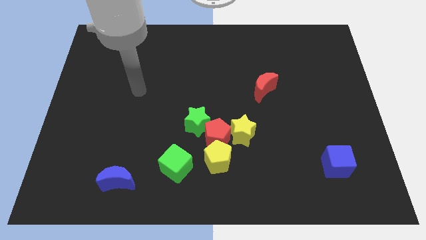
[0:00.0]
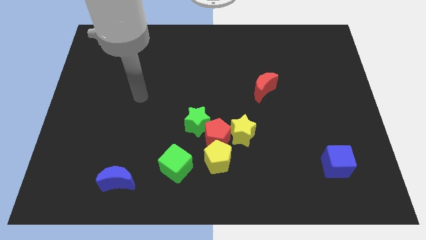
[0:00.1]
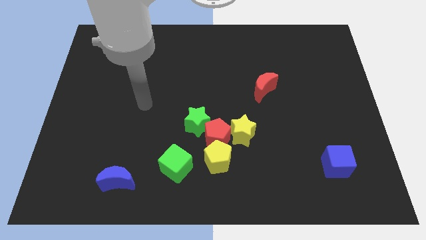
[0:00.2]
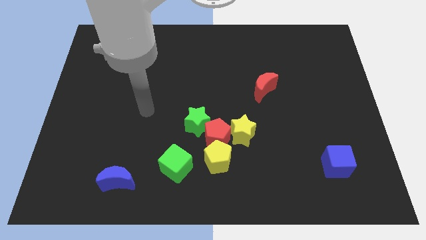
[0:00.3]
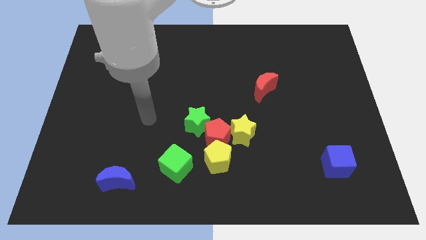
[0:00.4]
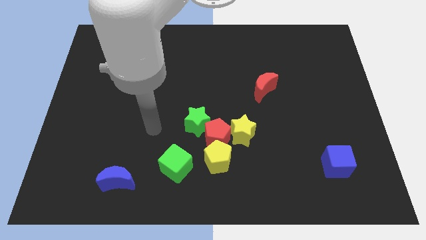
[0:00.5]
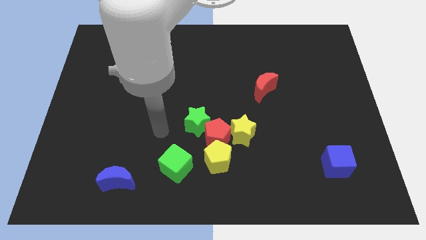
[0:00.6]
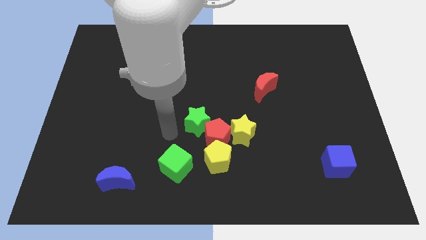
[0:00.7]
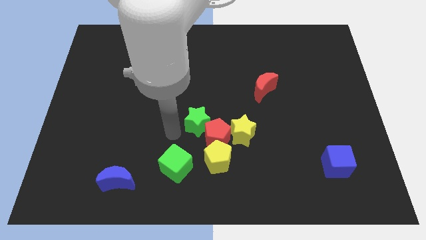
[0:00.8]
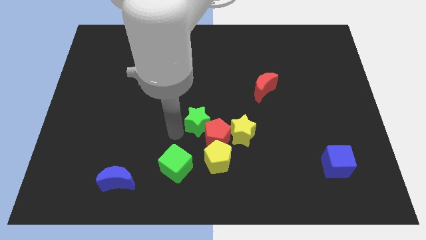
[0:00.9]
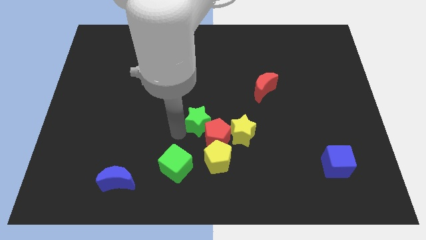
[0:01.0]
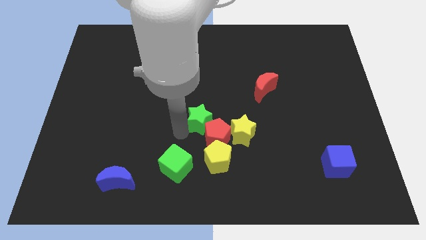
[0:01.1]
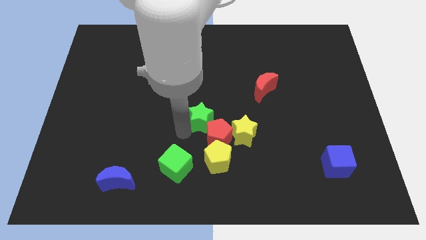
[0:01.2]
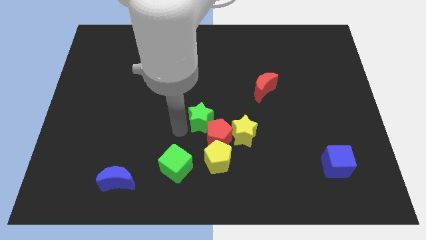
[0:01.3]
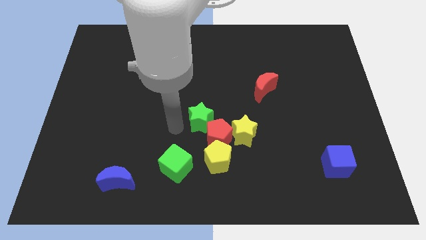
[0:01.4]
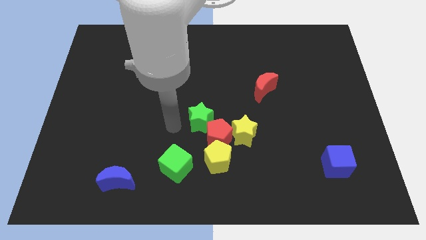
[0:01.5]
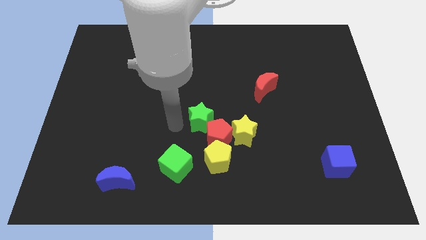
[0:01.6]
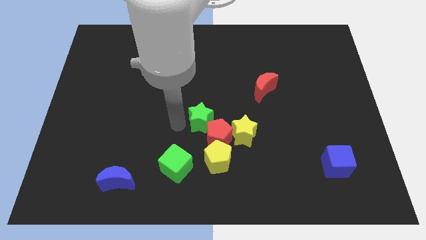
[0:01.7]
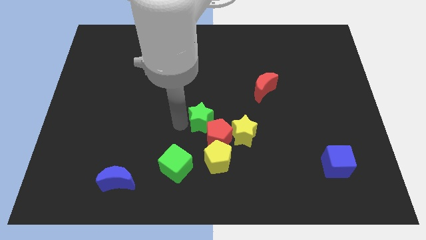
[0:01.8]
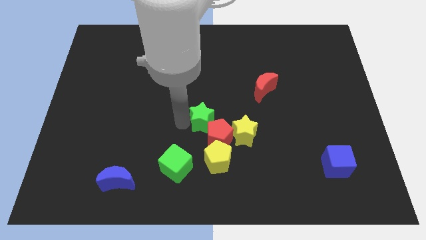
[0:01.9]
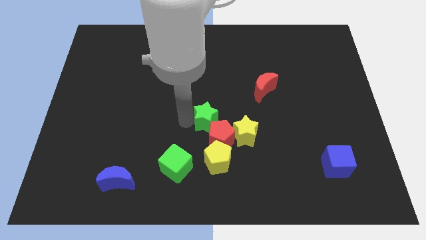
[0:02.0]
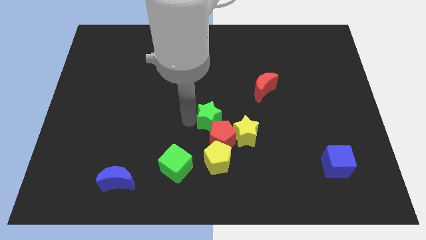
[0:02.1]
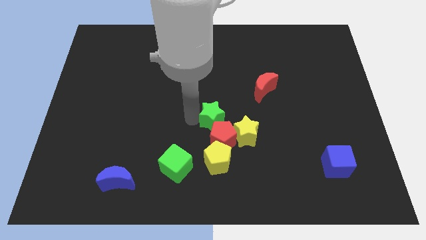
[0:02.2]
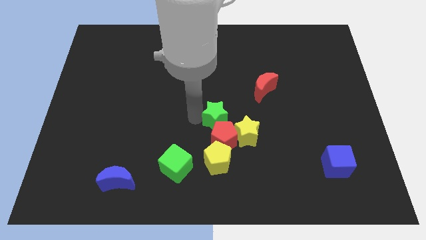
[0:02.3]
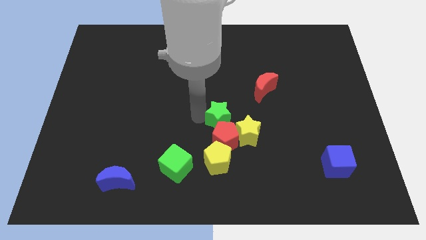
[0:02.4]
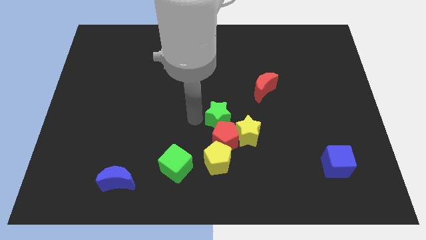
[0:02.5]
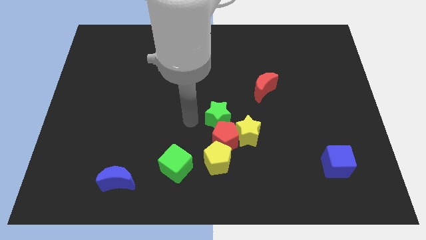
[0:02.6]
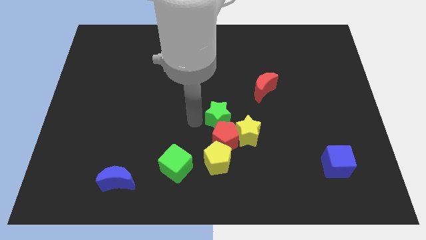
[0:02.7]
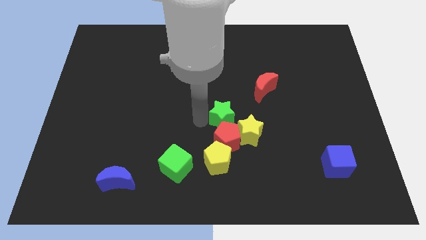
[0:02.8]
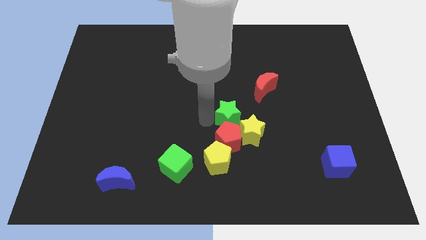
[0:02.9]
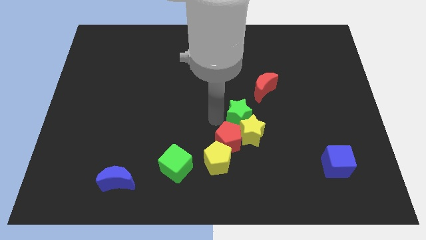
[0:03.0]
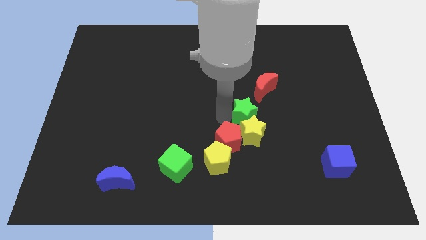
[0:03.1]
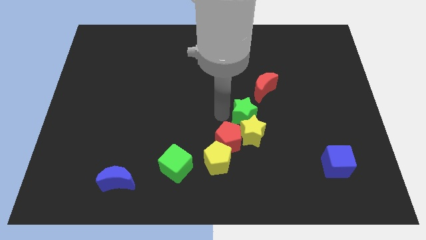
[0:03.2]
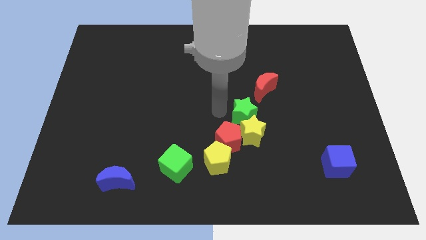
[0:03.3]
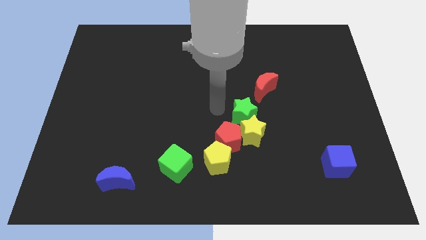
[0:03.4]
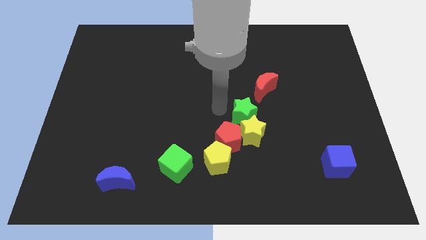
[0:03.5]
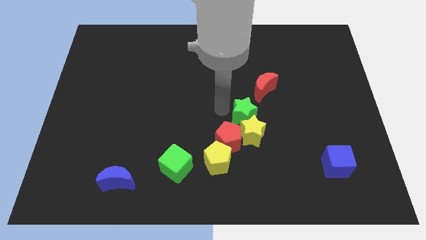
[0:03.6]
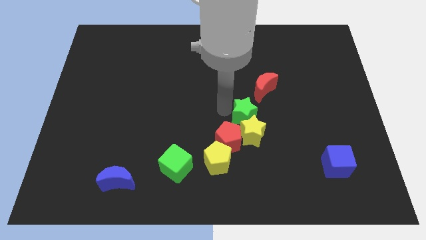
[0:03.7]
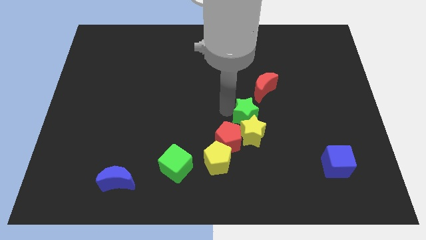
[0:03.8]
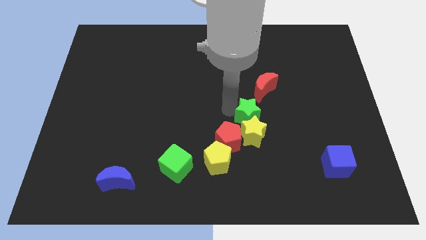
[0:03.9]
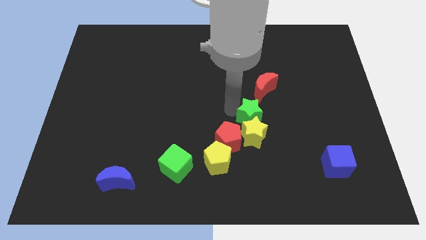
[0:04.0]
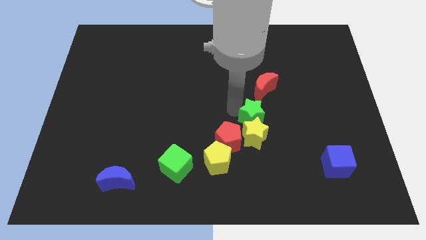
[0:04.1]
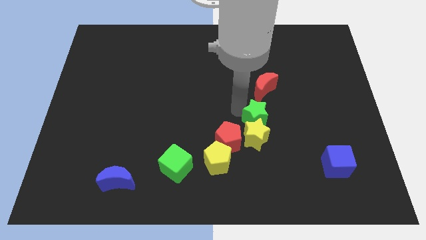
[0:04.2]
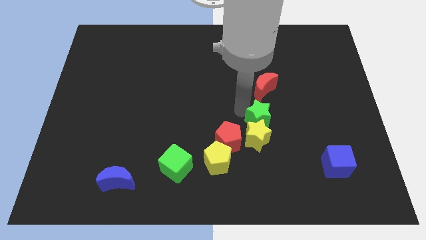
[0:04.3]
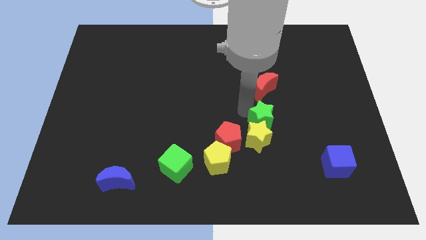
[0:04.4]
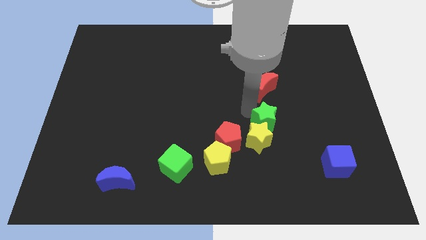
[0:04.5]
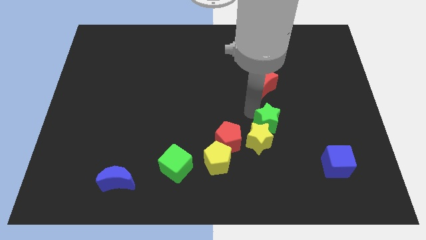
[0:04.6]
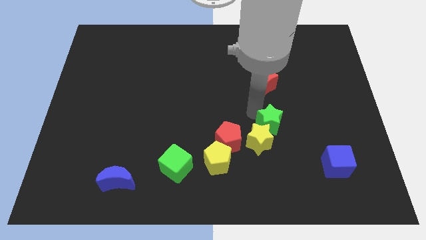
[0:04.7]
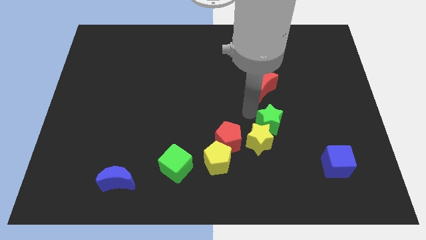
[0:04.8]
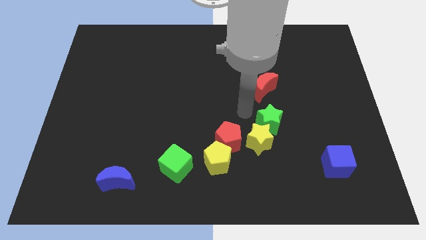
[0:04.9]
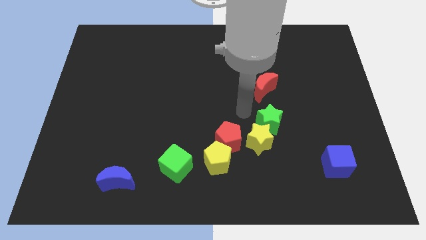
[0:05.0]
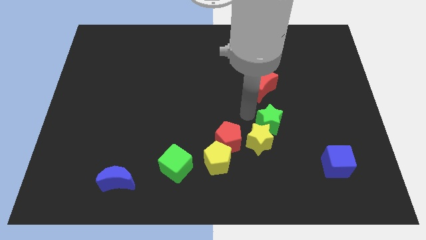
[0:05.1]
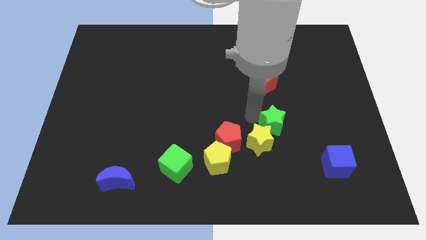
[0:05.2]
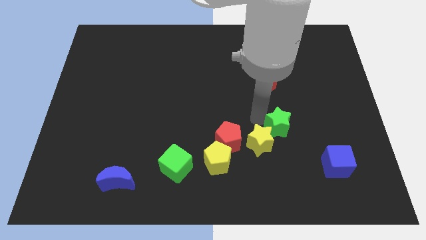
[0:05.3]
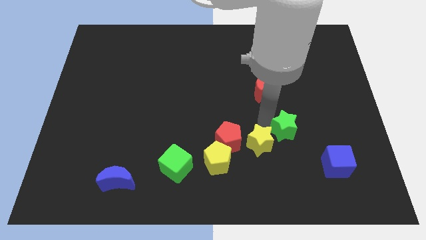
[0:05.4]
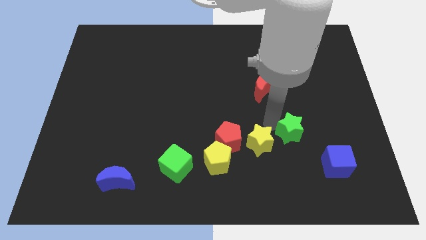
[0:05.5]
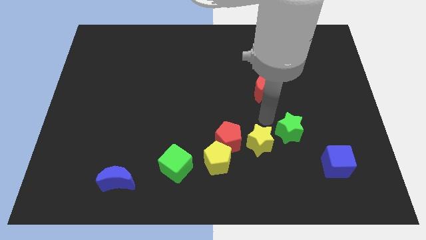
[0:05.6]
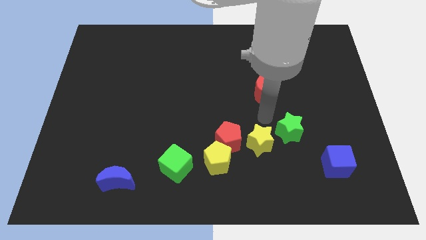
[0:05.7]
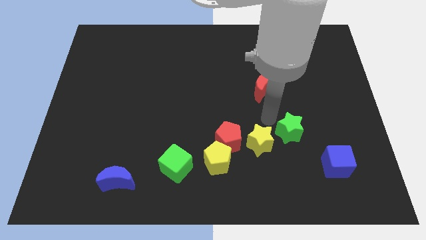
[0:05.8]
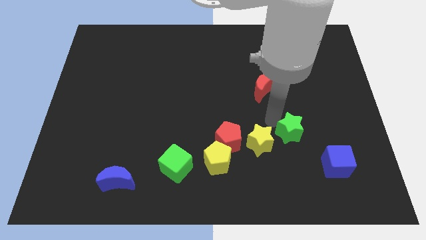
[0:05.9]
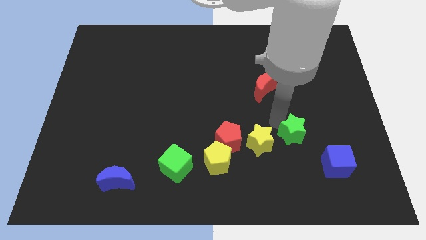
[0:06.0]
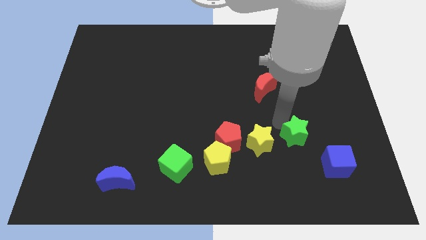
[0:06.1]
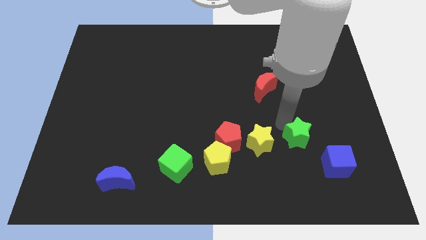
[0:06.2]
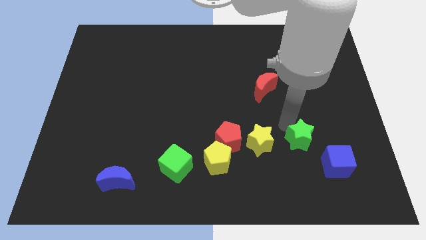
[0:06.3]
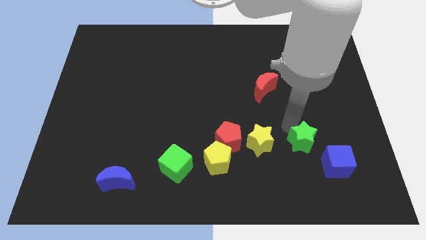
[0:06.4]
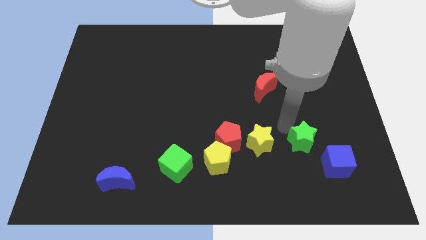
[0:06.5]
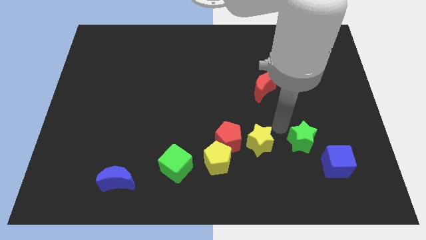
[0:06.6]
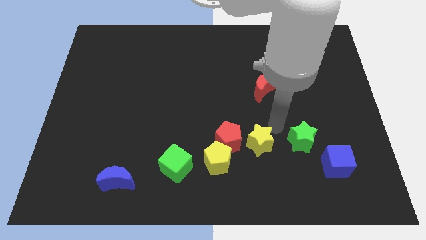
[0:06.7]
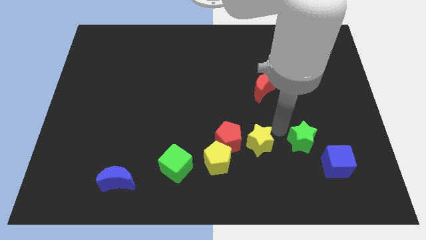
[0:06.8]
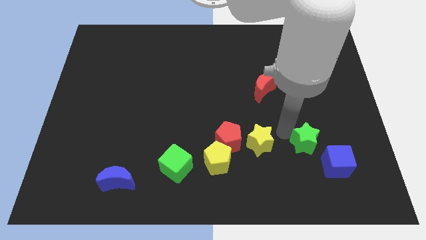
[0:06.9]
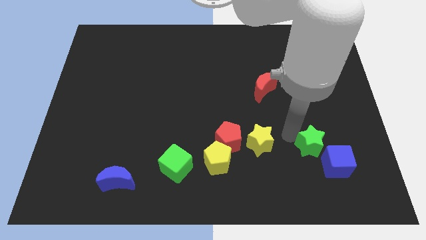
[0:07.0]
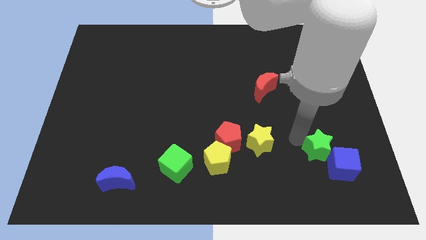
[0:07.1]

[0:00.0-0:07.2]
push the green star next to the blue cube
